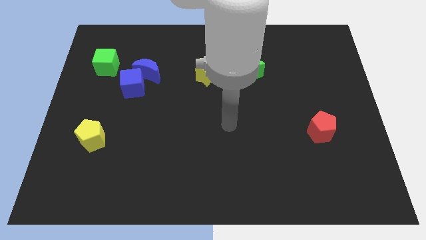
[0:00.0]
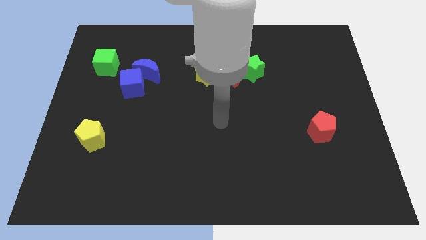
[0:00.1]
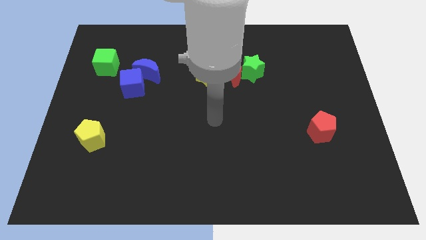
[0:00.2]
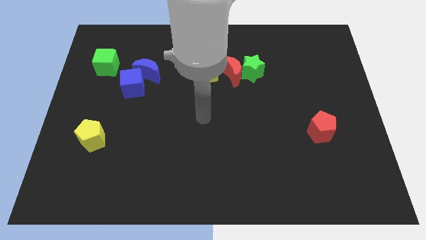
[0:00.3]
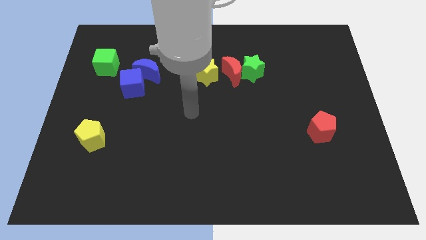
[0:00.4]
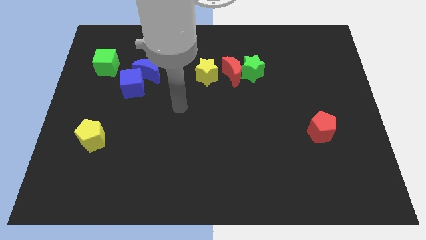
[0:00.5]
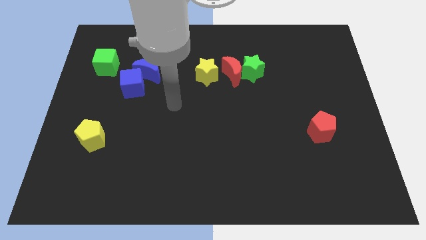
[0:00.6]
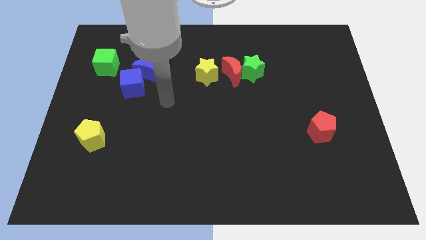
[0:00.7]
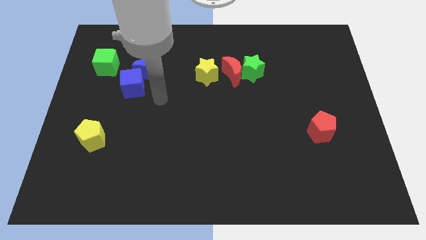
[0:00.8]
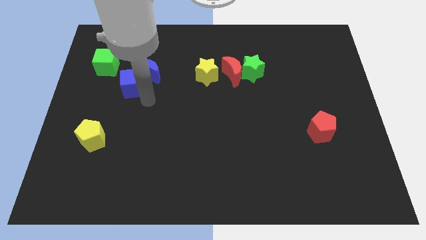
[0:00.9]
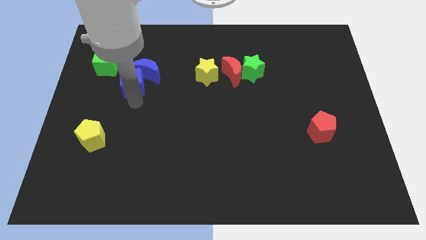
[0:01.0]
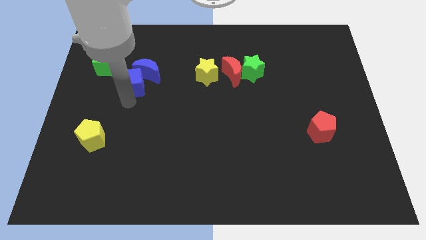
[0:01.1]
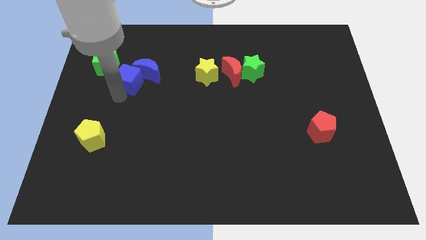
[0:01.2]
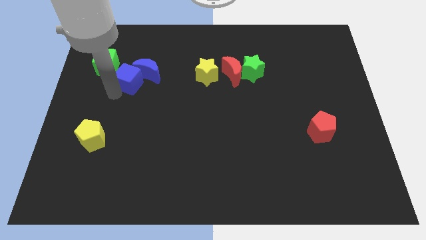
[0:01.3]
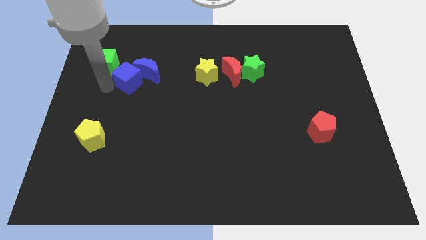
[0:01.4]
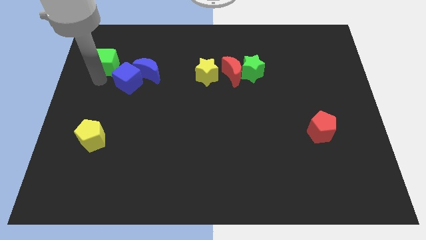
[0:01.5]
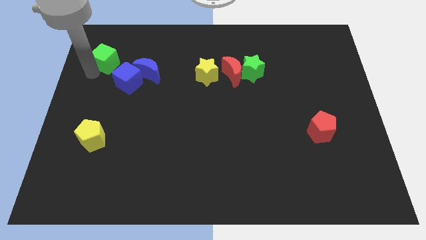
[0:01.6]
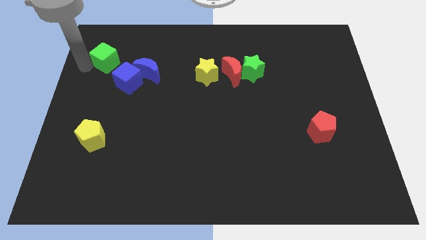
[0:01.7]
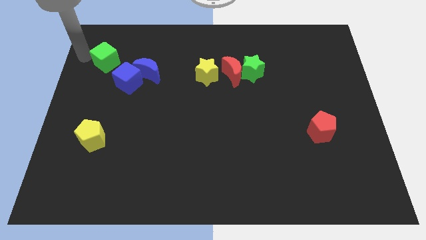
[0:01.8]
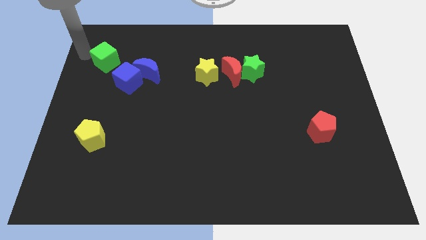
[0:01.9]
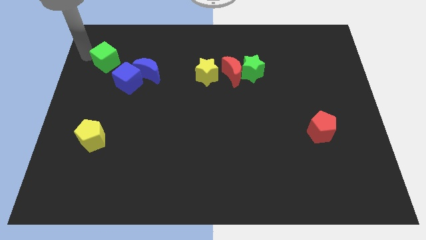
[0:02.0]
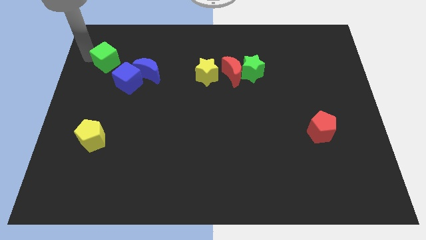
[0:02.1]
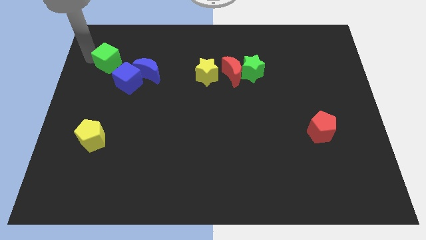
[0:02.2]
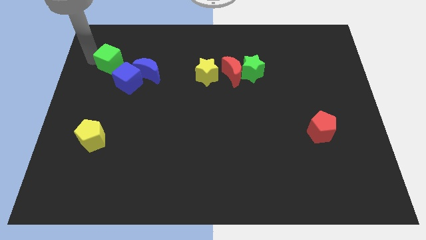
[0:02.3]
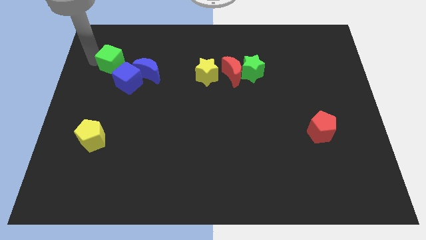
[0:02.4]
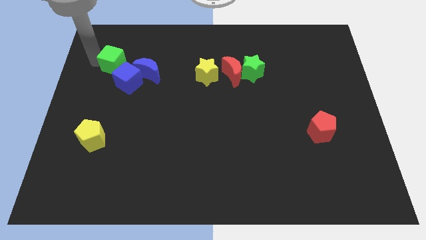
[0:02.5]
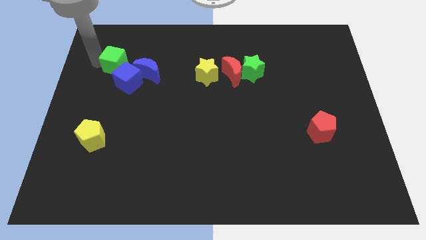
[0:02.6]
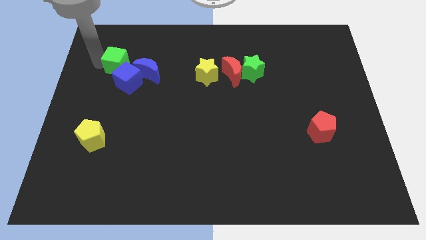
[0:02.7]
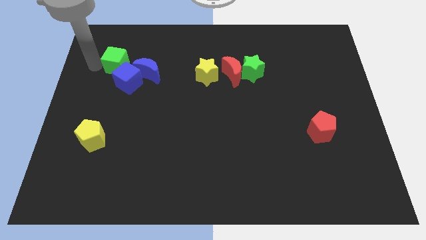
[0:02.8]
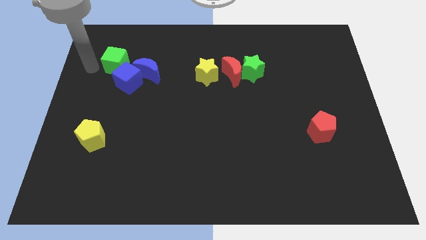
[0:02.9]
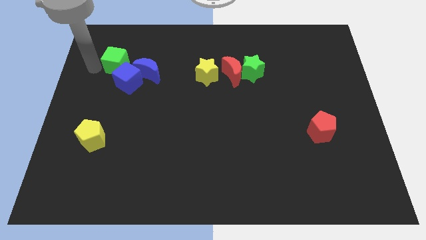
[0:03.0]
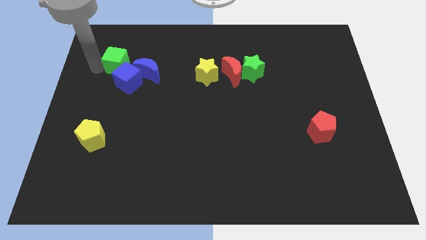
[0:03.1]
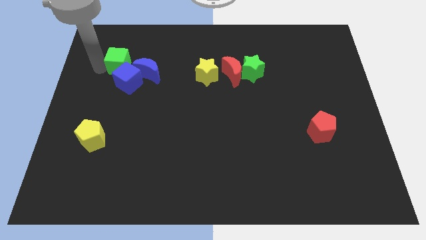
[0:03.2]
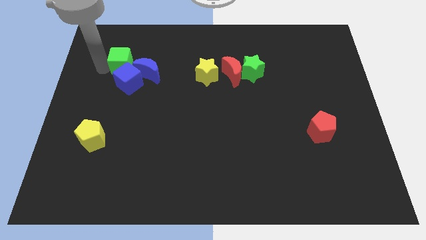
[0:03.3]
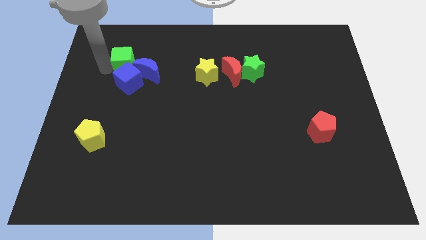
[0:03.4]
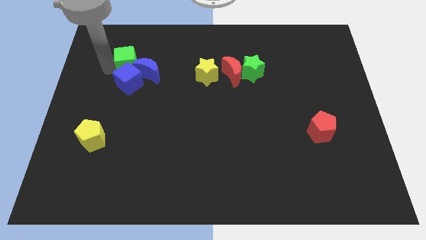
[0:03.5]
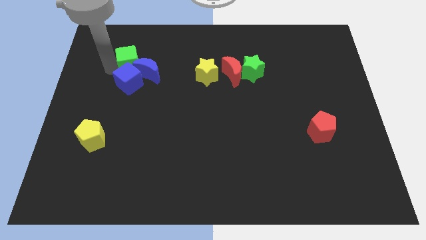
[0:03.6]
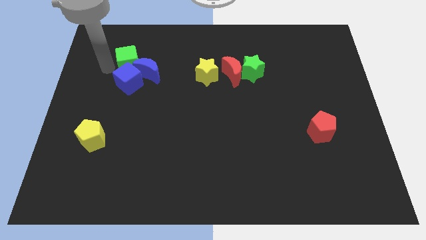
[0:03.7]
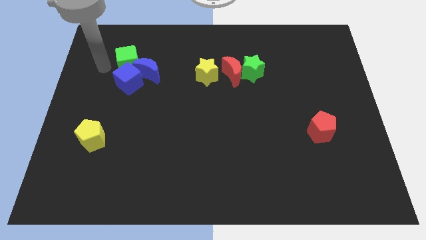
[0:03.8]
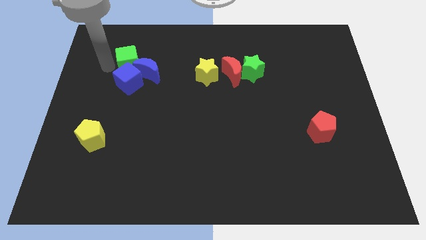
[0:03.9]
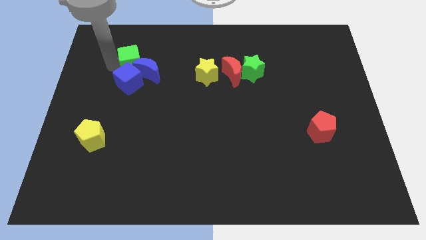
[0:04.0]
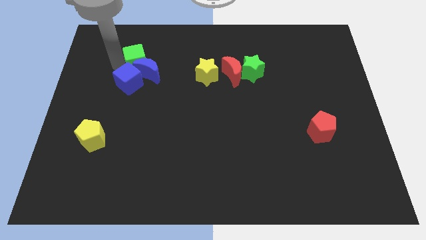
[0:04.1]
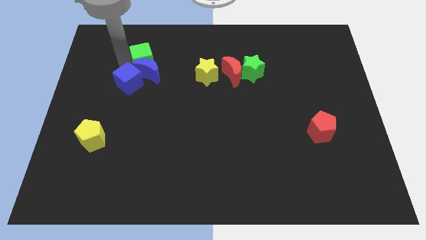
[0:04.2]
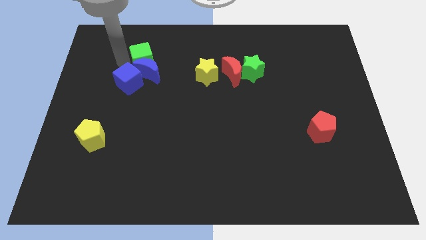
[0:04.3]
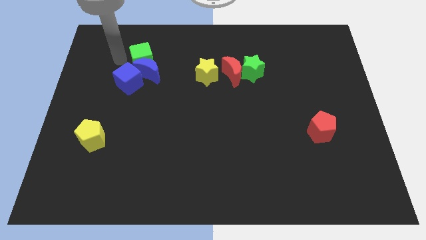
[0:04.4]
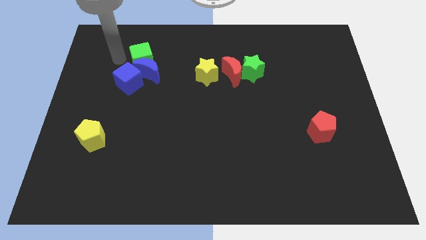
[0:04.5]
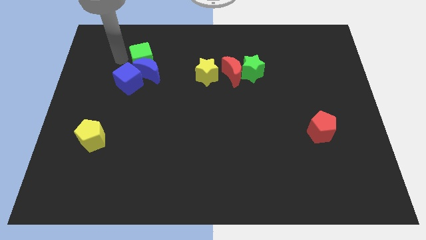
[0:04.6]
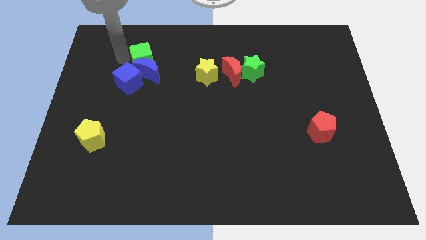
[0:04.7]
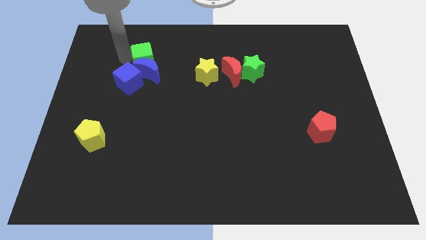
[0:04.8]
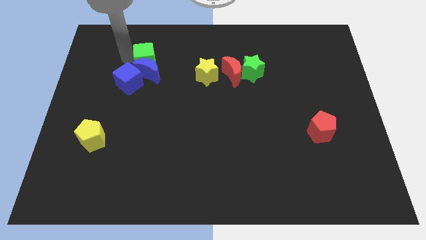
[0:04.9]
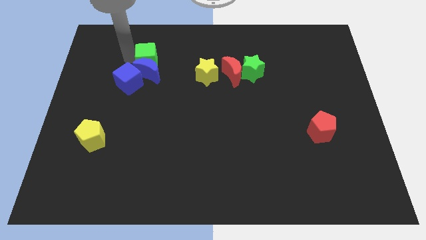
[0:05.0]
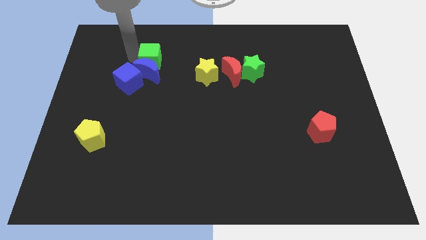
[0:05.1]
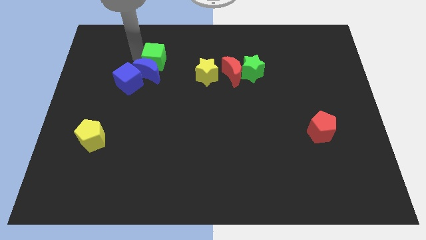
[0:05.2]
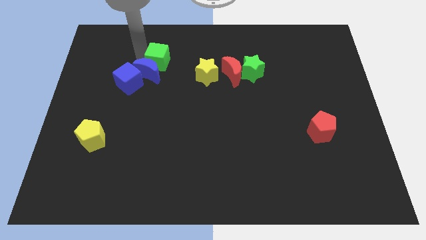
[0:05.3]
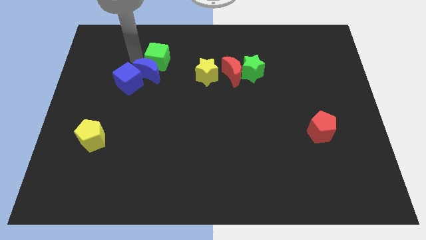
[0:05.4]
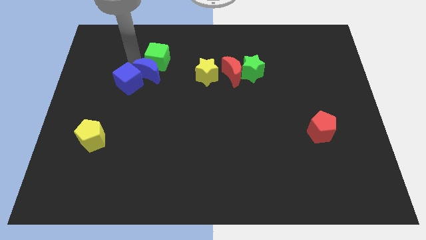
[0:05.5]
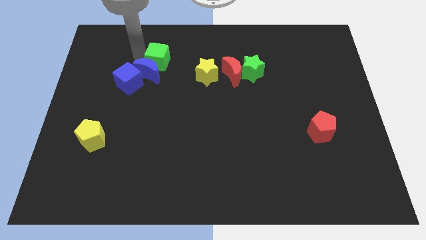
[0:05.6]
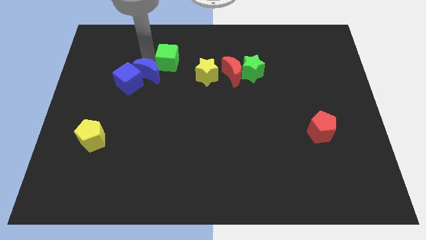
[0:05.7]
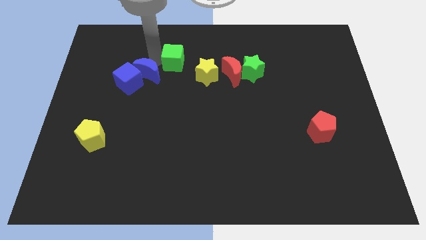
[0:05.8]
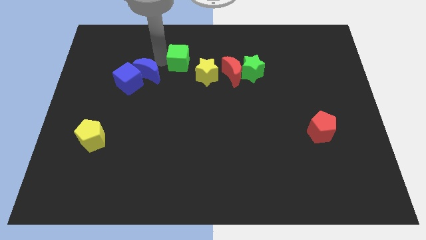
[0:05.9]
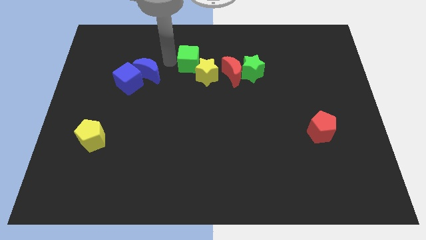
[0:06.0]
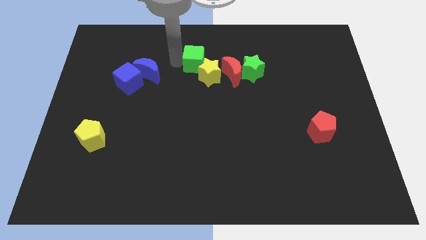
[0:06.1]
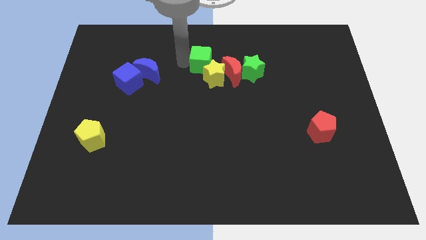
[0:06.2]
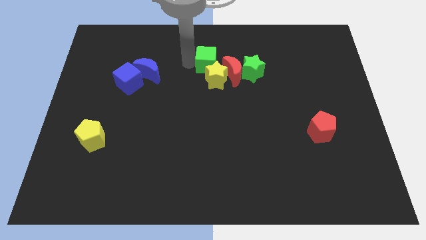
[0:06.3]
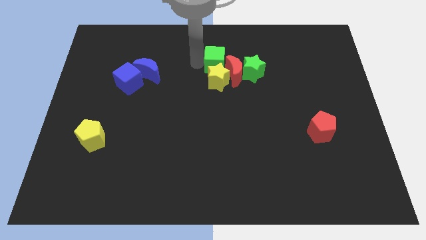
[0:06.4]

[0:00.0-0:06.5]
push the green cube to the top right of the yellow star
